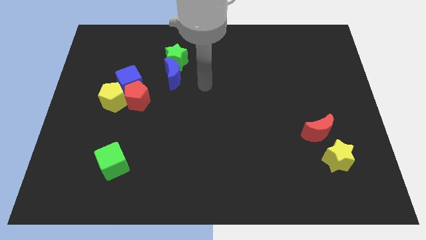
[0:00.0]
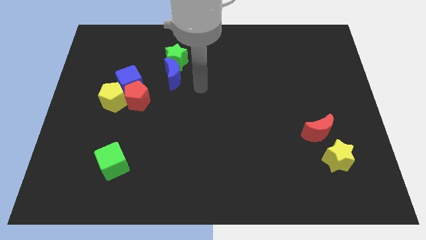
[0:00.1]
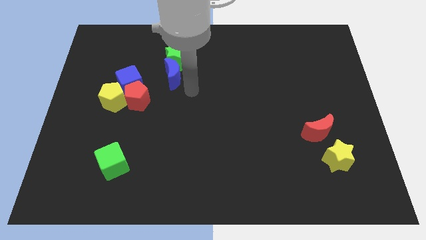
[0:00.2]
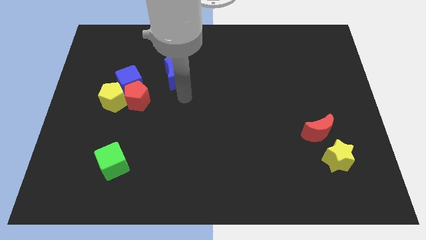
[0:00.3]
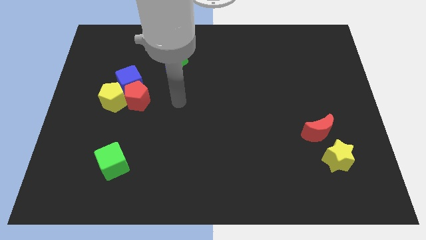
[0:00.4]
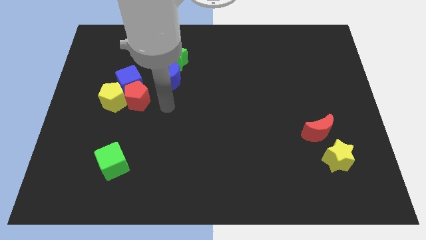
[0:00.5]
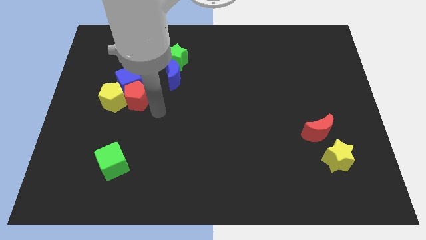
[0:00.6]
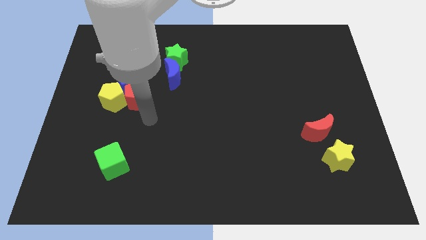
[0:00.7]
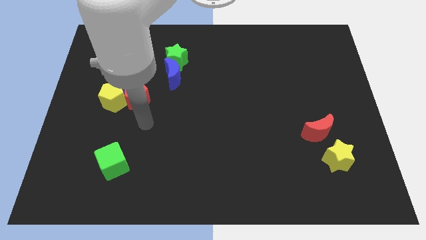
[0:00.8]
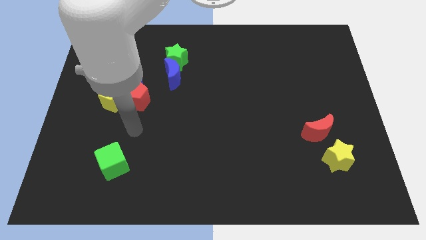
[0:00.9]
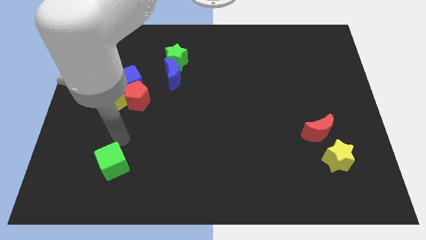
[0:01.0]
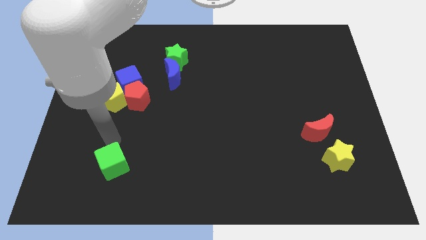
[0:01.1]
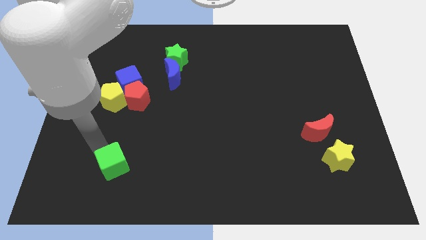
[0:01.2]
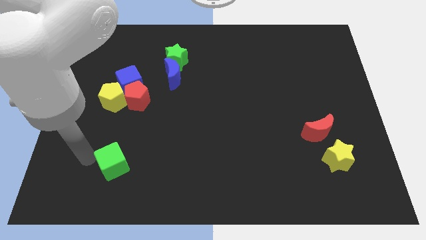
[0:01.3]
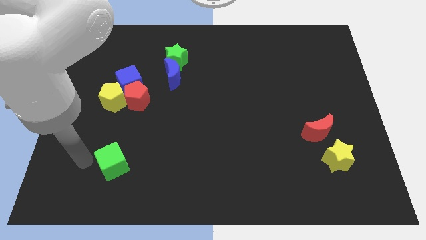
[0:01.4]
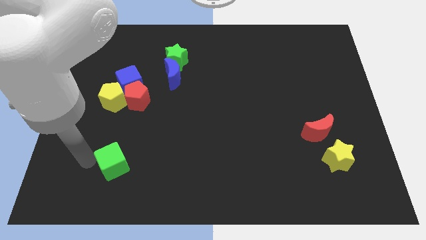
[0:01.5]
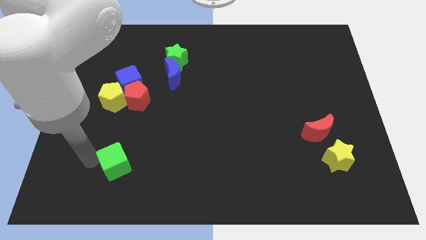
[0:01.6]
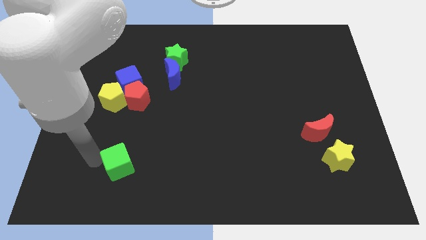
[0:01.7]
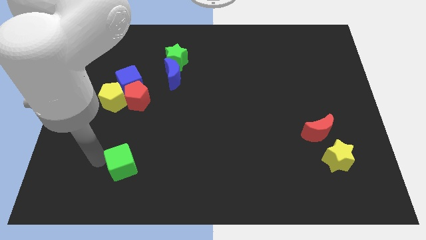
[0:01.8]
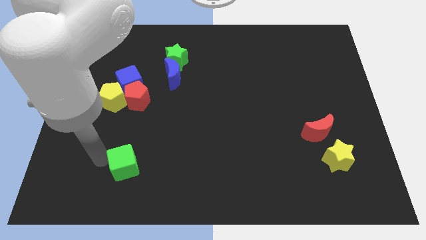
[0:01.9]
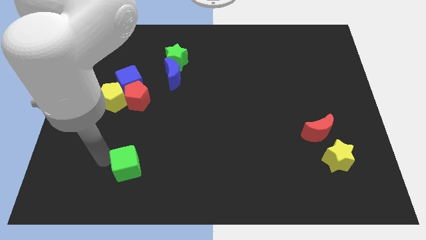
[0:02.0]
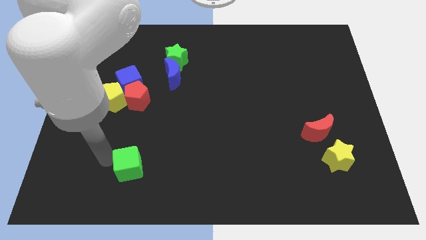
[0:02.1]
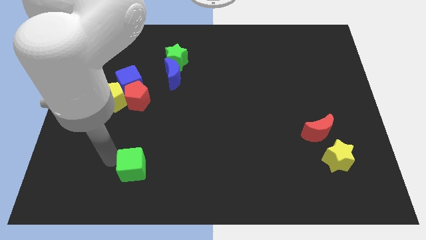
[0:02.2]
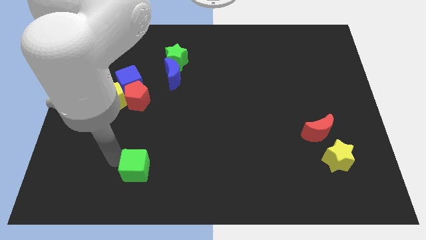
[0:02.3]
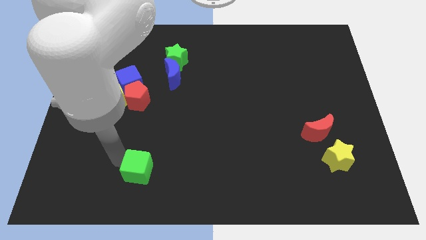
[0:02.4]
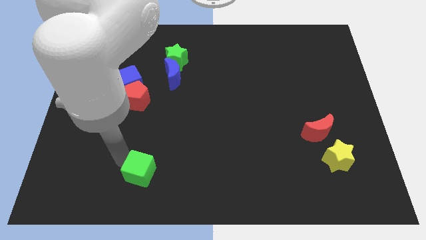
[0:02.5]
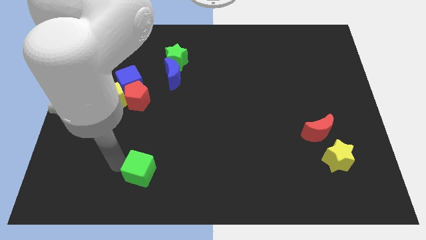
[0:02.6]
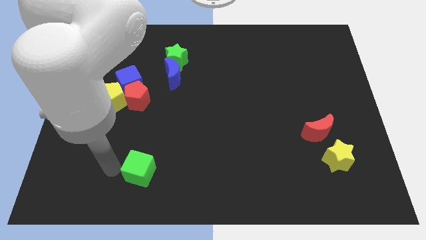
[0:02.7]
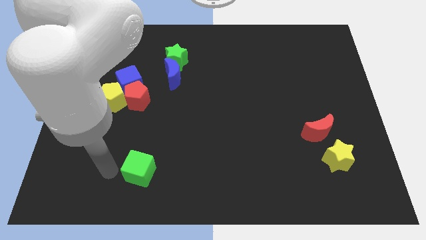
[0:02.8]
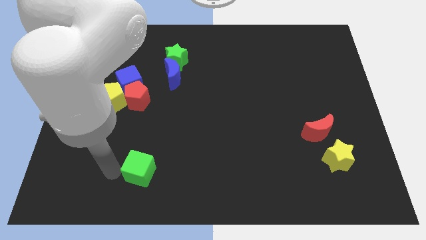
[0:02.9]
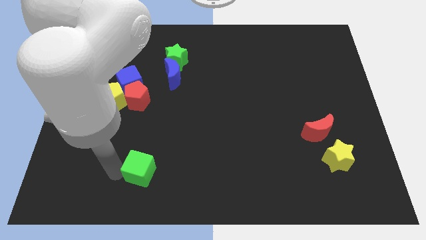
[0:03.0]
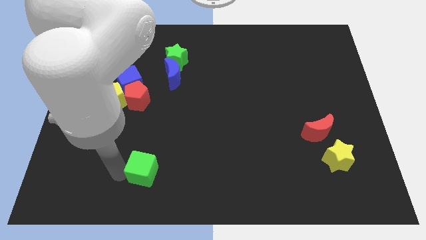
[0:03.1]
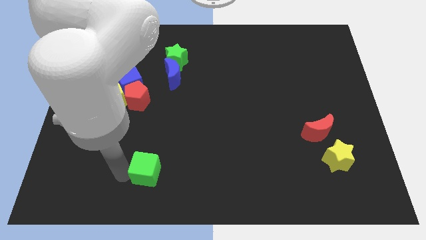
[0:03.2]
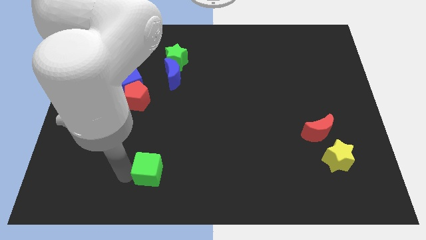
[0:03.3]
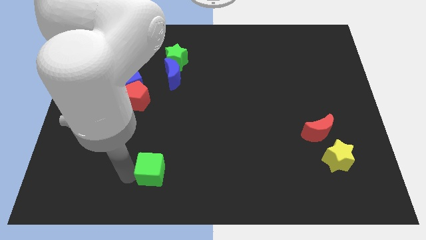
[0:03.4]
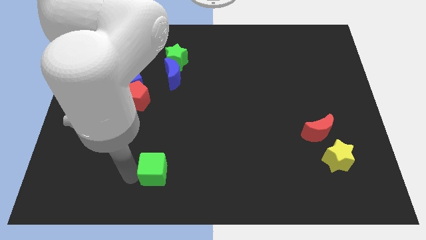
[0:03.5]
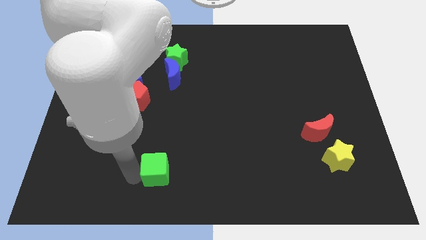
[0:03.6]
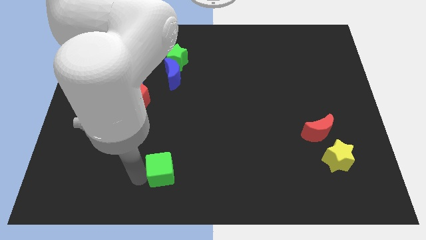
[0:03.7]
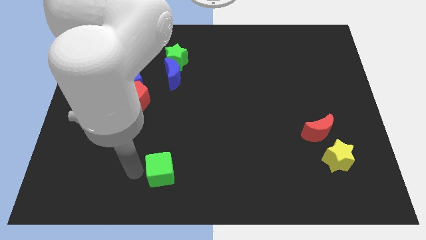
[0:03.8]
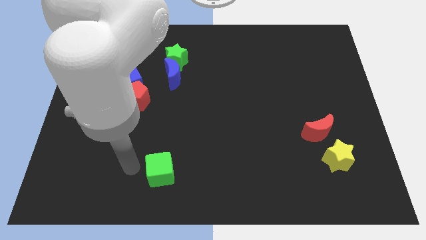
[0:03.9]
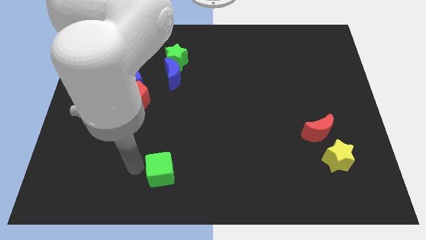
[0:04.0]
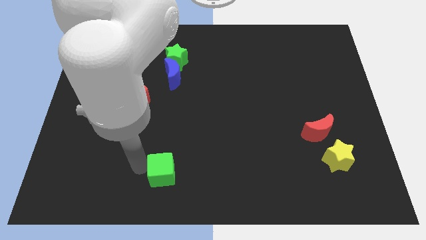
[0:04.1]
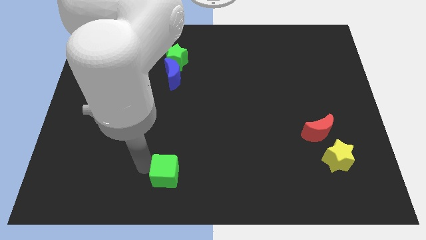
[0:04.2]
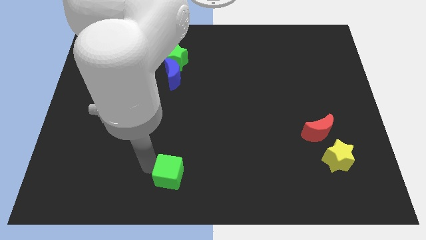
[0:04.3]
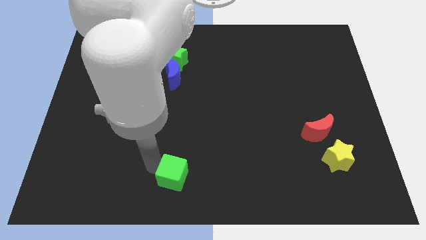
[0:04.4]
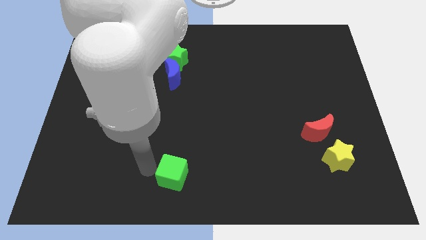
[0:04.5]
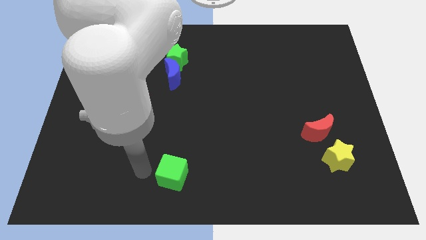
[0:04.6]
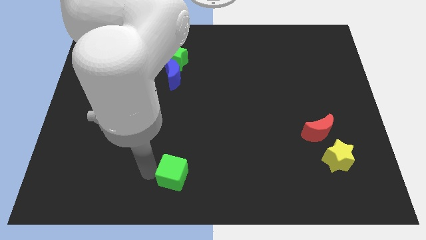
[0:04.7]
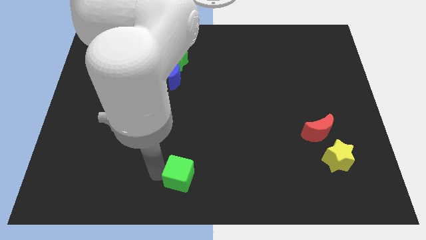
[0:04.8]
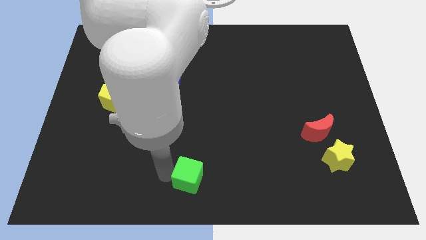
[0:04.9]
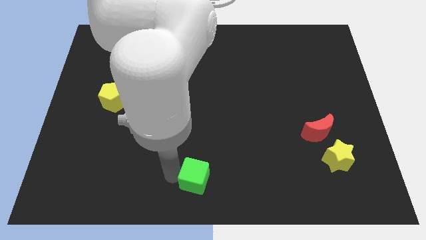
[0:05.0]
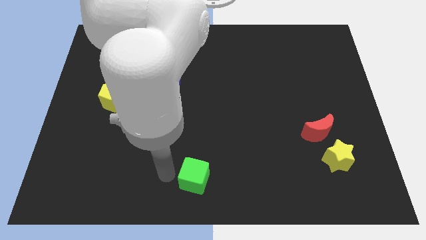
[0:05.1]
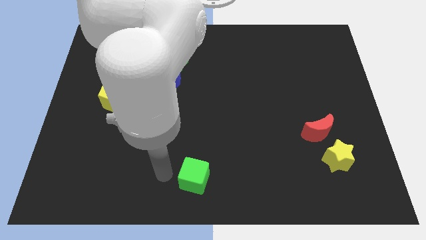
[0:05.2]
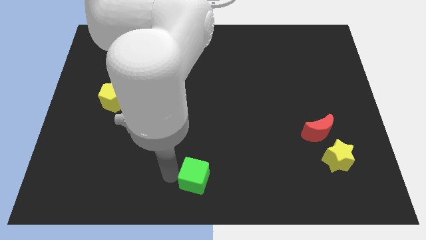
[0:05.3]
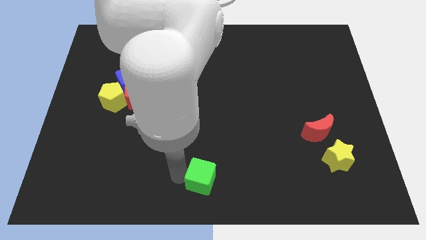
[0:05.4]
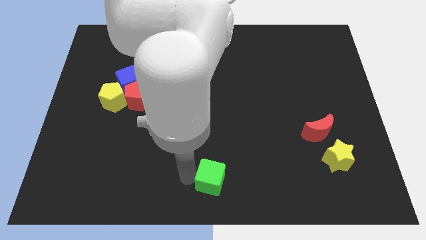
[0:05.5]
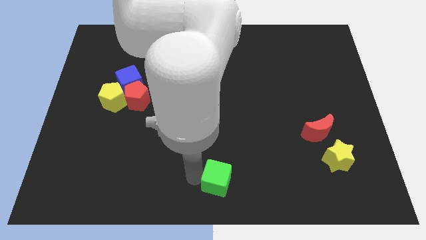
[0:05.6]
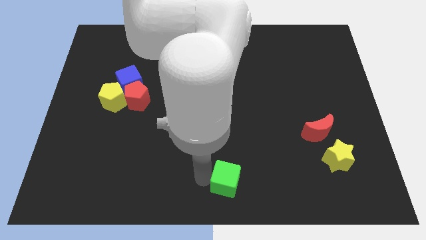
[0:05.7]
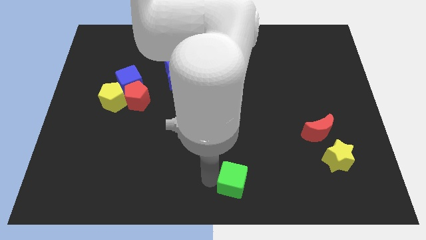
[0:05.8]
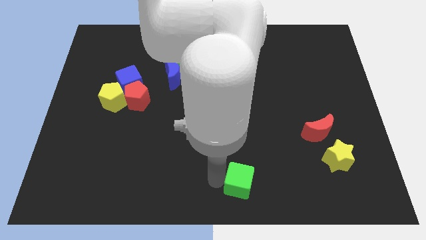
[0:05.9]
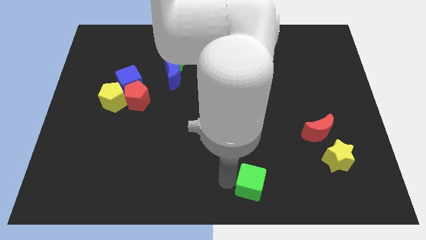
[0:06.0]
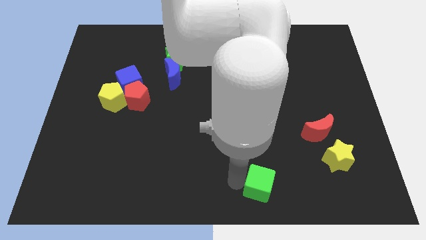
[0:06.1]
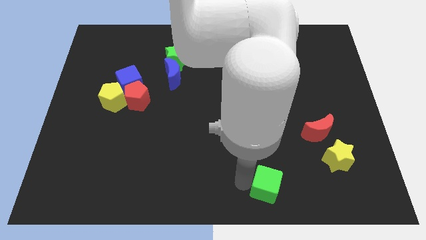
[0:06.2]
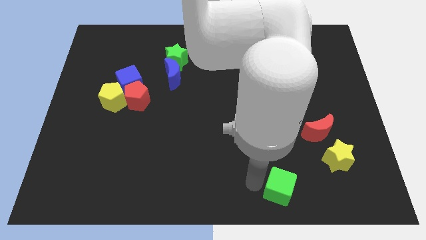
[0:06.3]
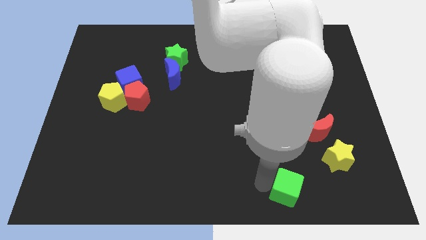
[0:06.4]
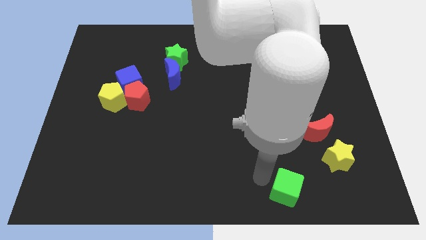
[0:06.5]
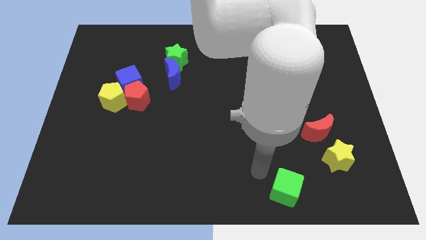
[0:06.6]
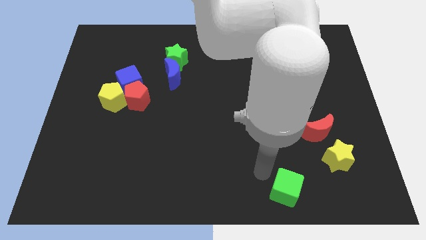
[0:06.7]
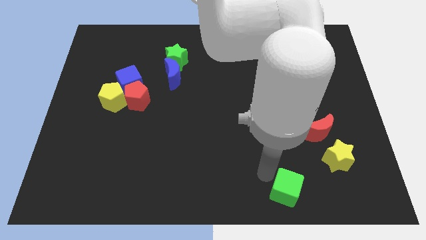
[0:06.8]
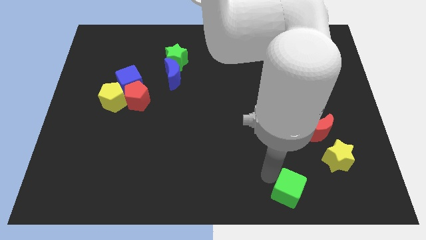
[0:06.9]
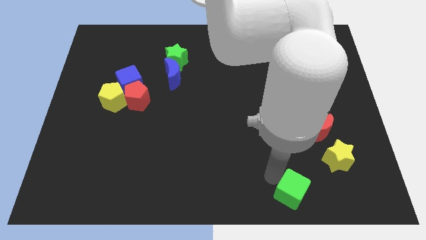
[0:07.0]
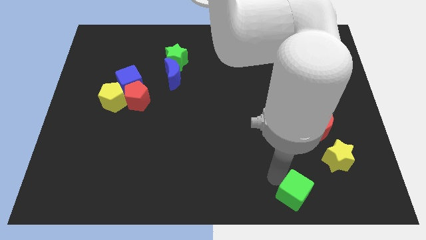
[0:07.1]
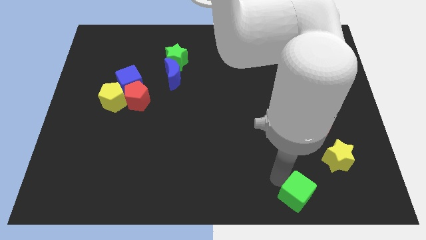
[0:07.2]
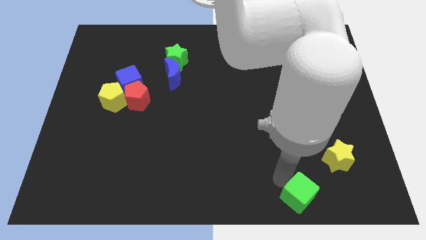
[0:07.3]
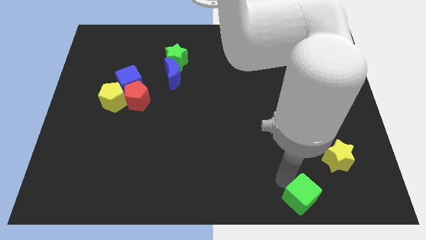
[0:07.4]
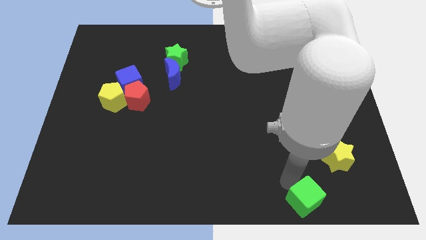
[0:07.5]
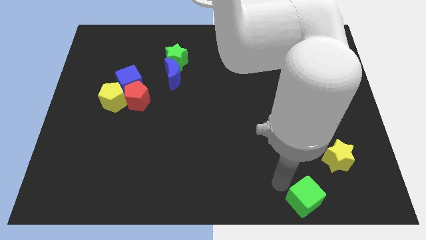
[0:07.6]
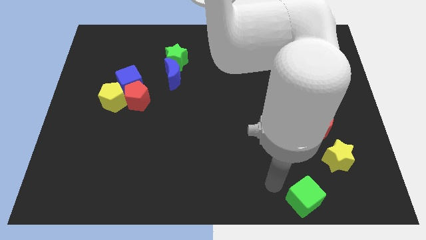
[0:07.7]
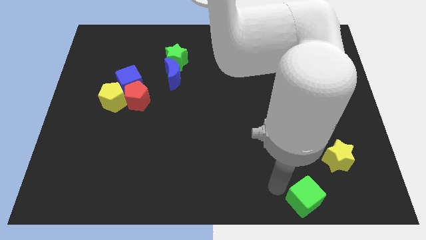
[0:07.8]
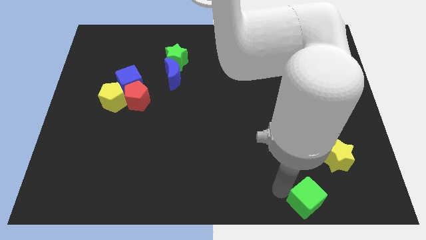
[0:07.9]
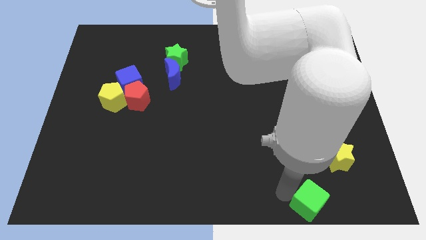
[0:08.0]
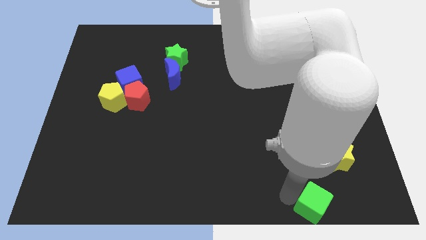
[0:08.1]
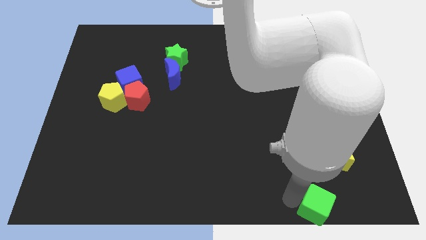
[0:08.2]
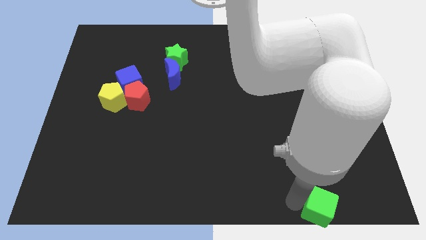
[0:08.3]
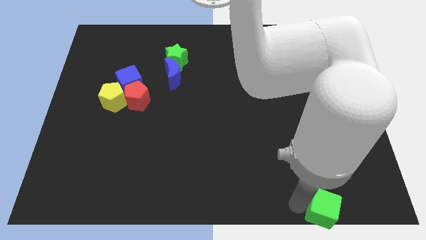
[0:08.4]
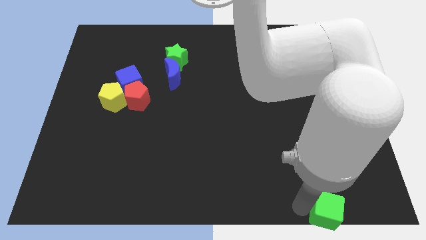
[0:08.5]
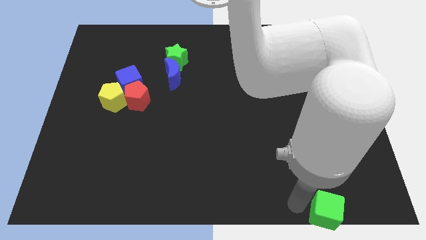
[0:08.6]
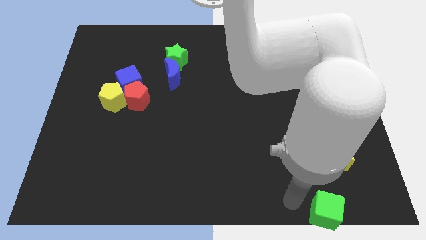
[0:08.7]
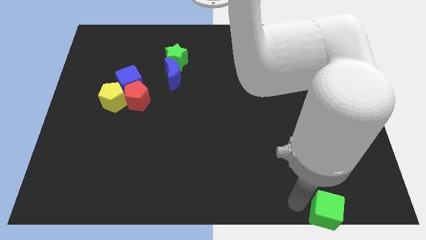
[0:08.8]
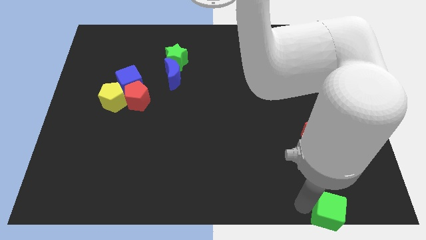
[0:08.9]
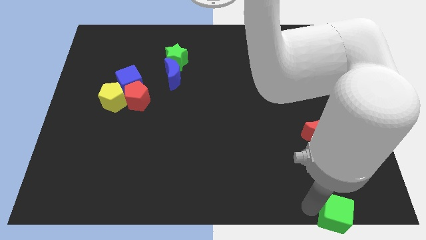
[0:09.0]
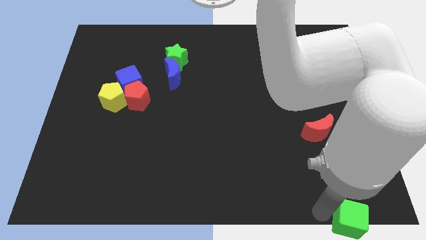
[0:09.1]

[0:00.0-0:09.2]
push the green cube to the bottom right
